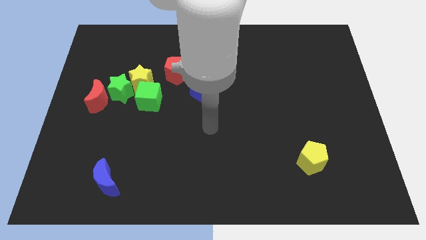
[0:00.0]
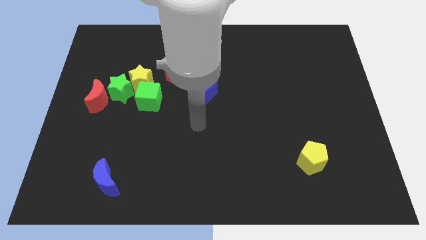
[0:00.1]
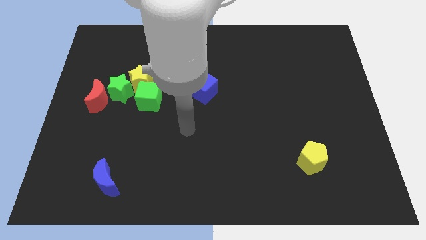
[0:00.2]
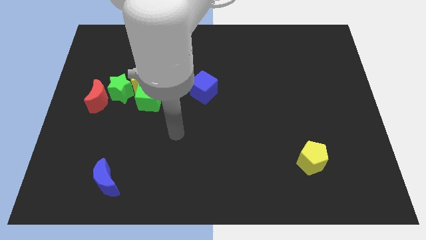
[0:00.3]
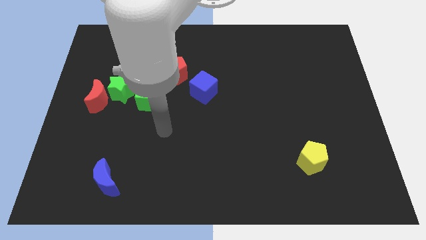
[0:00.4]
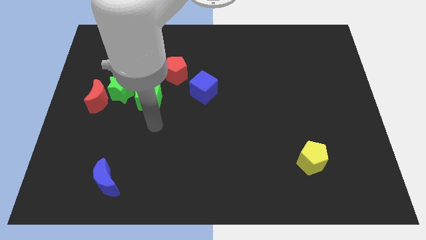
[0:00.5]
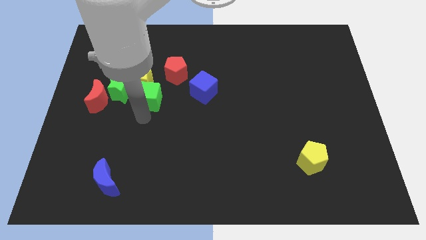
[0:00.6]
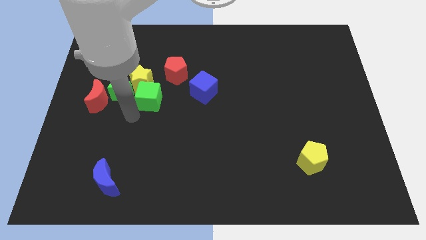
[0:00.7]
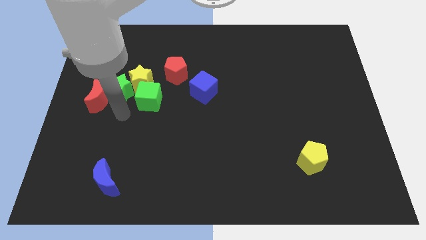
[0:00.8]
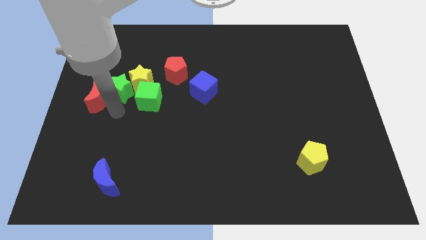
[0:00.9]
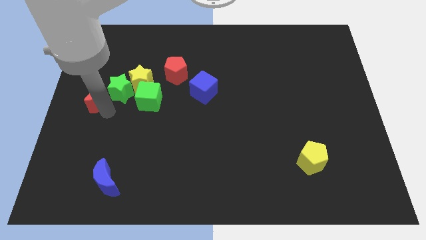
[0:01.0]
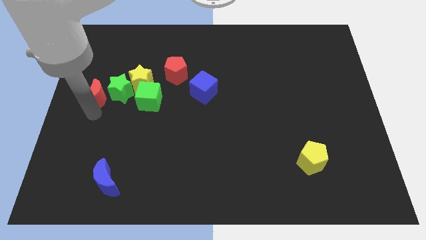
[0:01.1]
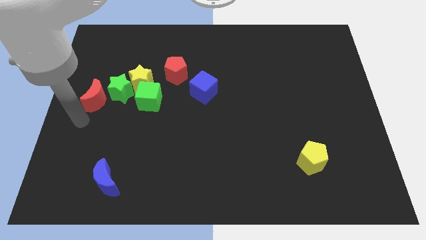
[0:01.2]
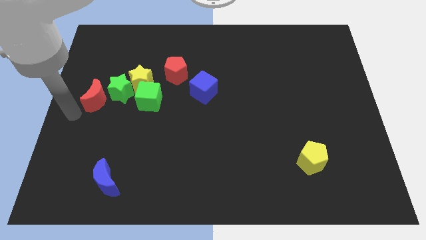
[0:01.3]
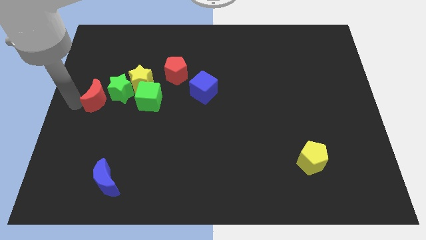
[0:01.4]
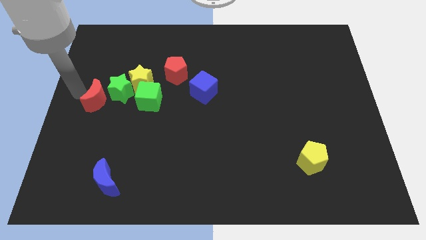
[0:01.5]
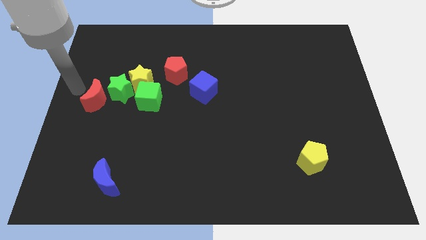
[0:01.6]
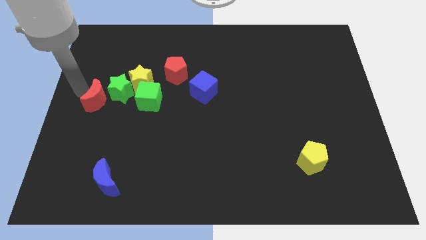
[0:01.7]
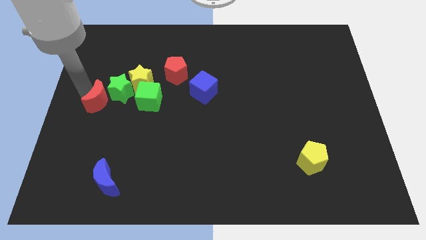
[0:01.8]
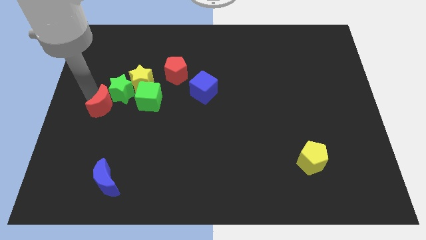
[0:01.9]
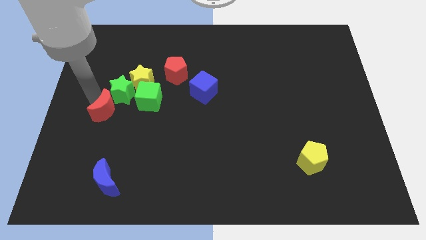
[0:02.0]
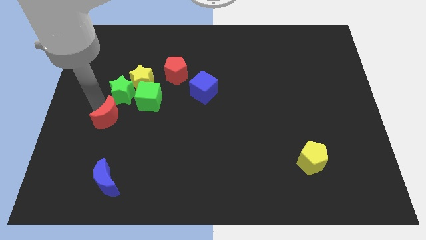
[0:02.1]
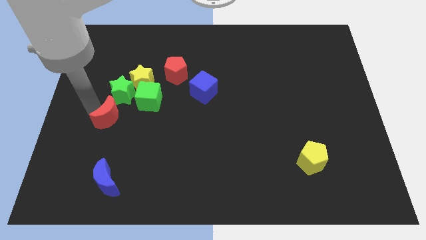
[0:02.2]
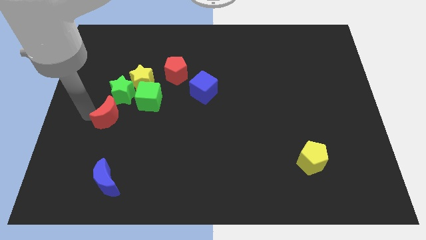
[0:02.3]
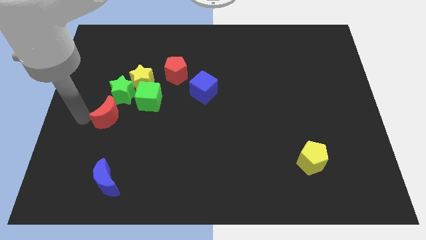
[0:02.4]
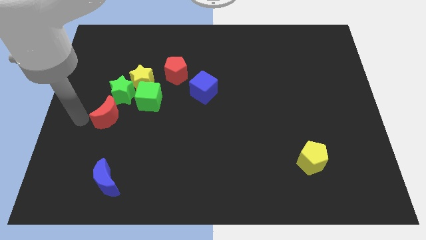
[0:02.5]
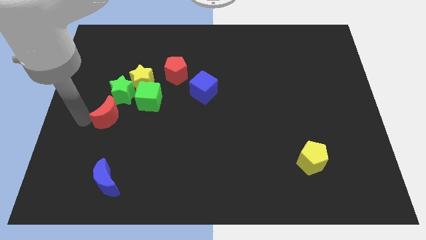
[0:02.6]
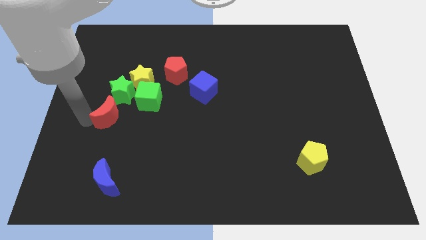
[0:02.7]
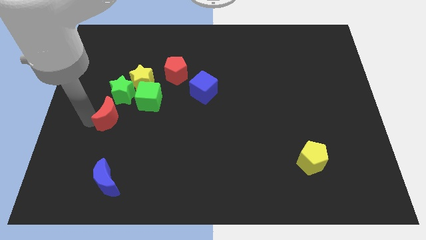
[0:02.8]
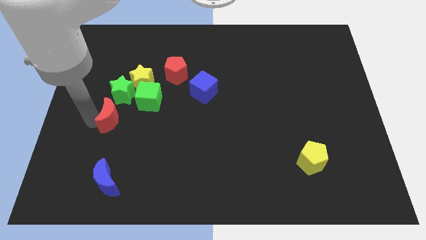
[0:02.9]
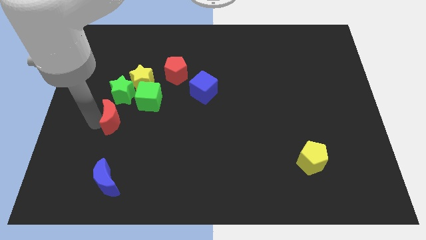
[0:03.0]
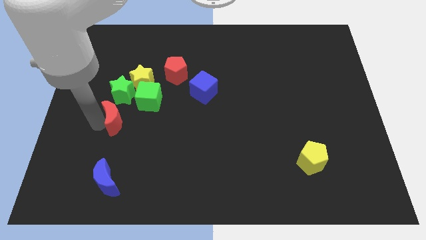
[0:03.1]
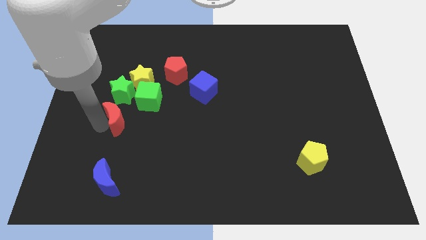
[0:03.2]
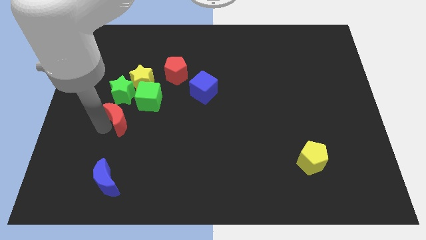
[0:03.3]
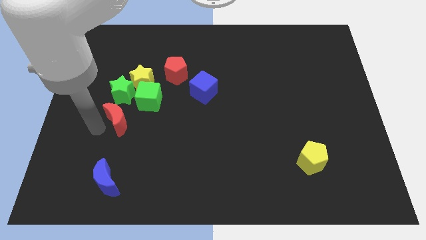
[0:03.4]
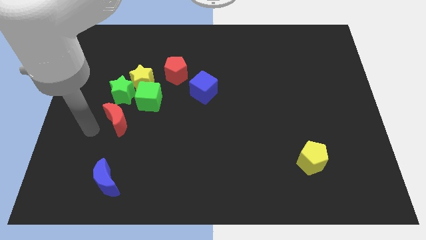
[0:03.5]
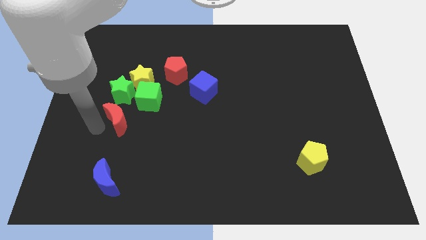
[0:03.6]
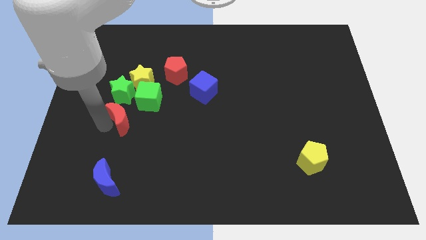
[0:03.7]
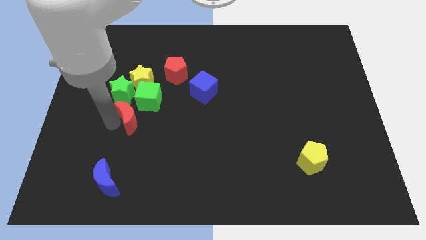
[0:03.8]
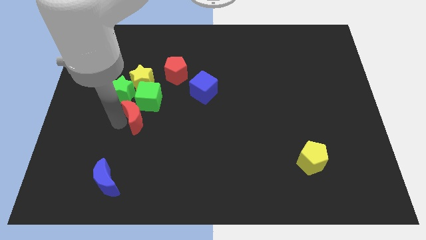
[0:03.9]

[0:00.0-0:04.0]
push the red moon slightly to the right

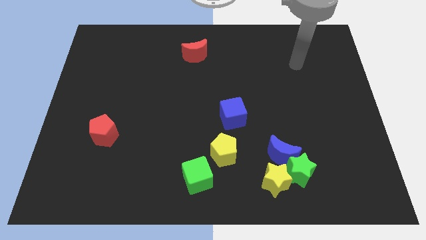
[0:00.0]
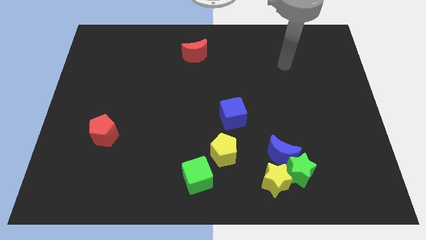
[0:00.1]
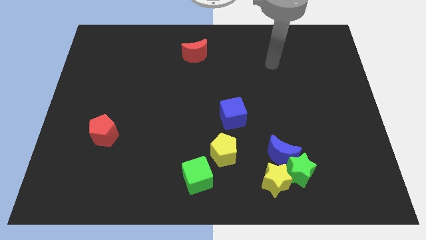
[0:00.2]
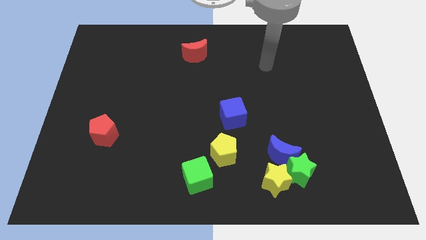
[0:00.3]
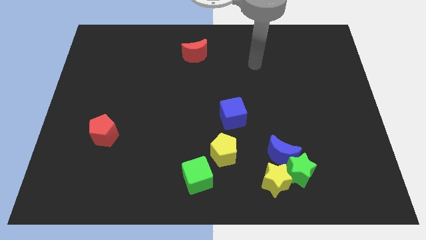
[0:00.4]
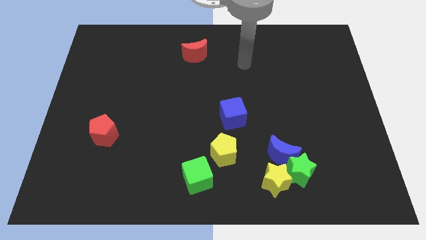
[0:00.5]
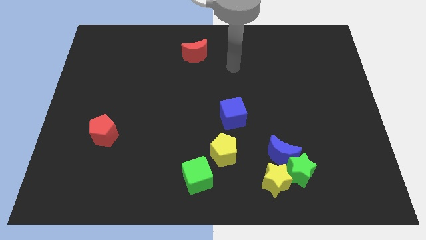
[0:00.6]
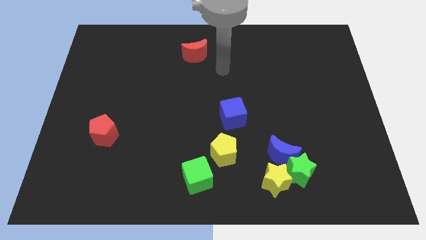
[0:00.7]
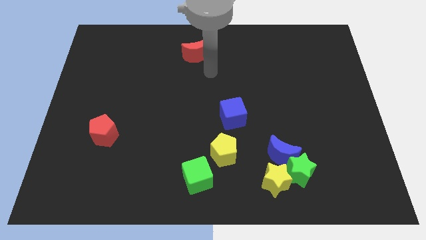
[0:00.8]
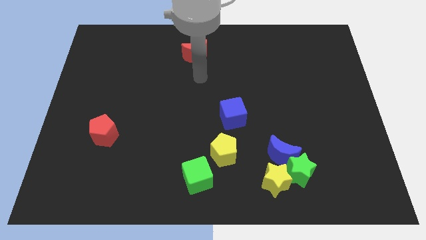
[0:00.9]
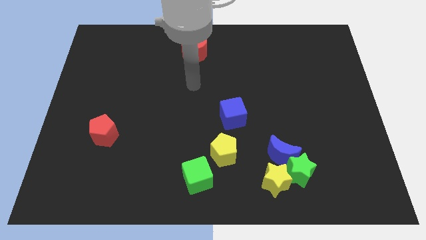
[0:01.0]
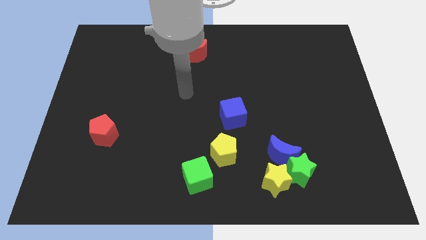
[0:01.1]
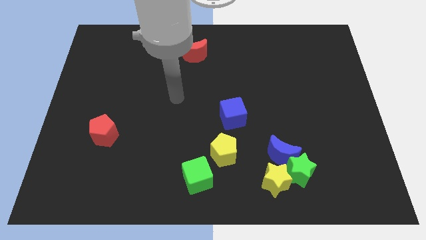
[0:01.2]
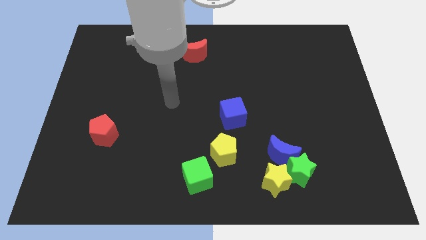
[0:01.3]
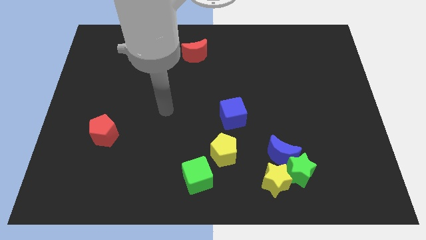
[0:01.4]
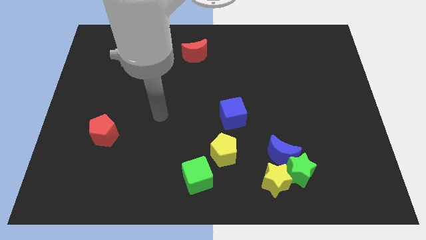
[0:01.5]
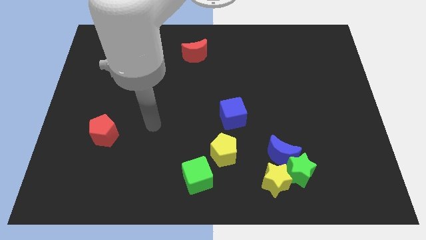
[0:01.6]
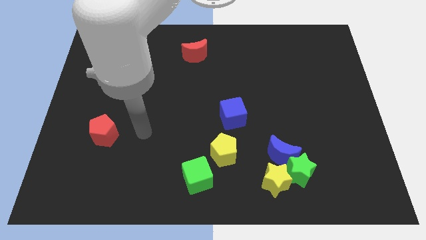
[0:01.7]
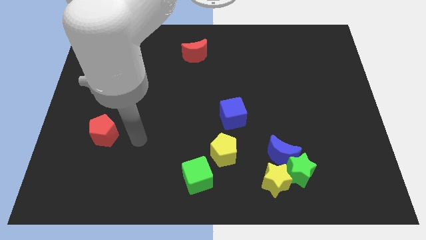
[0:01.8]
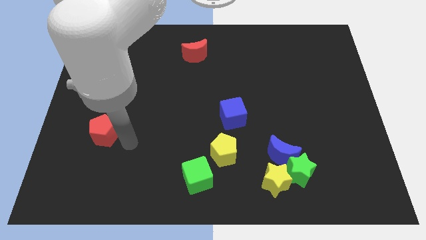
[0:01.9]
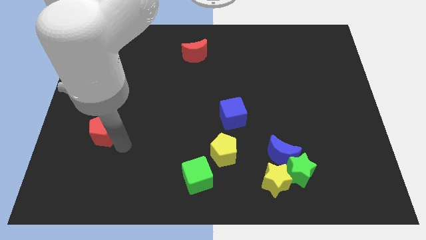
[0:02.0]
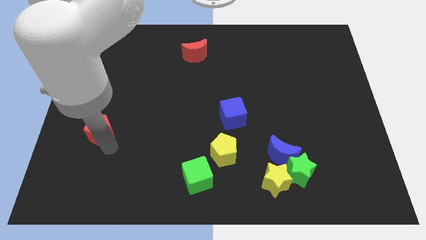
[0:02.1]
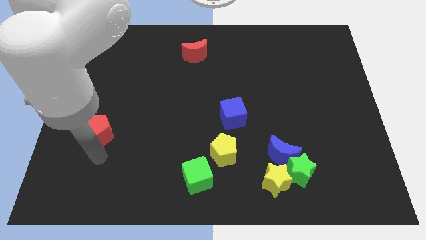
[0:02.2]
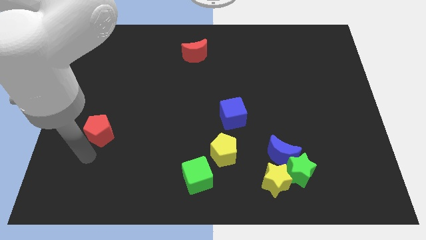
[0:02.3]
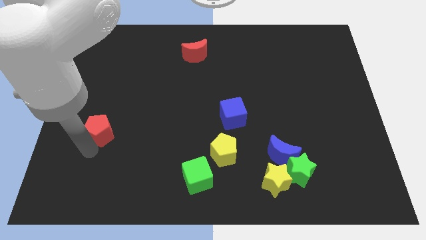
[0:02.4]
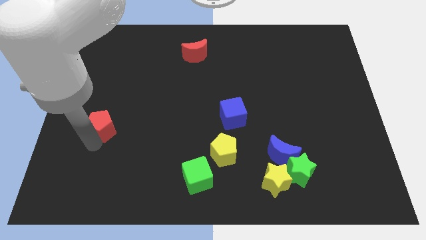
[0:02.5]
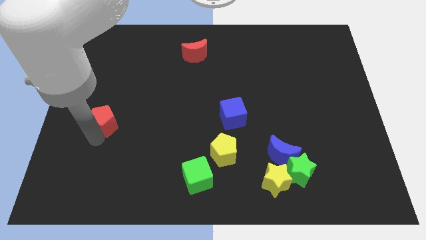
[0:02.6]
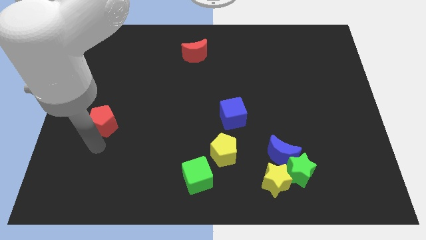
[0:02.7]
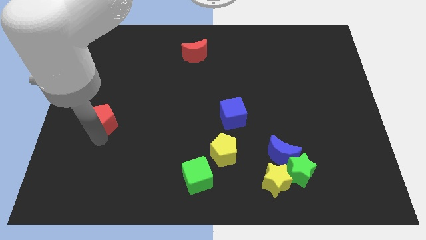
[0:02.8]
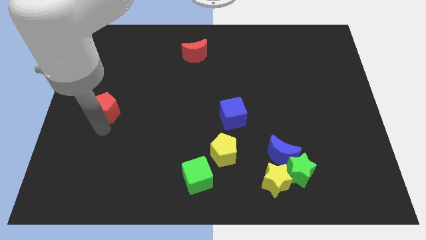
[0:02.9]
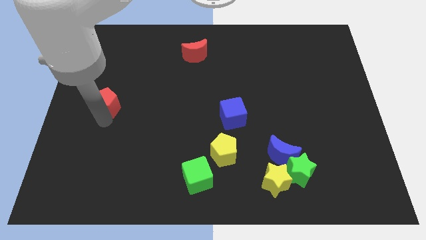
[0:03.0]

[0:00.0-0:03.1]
slightly slide the red pentagon upwards
